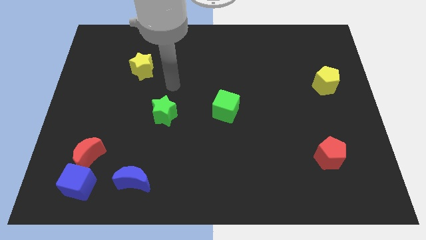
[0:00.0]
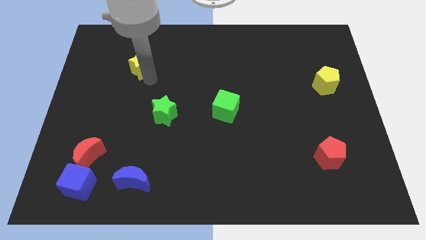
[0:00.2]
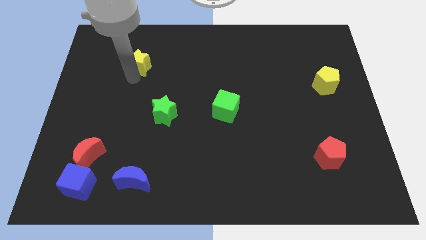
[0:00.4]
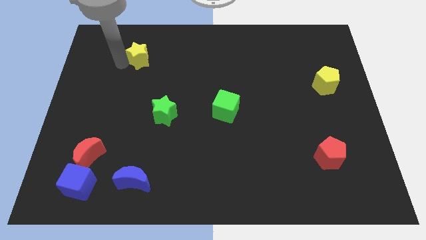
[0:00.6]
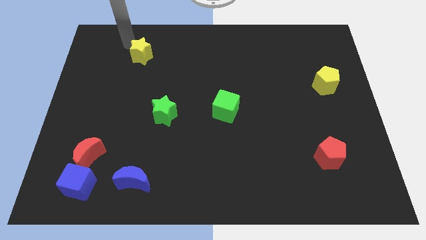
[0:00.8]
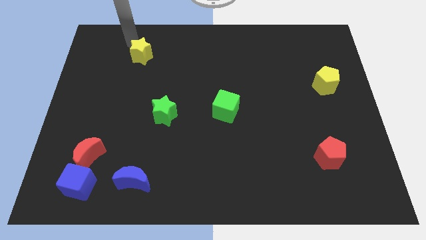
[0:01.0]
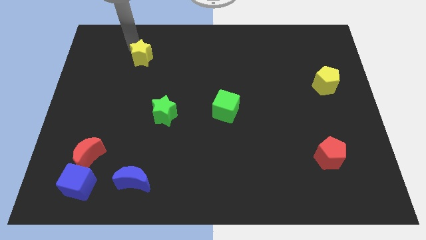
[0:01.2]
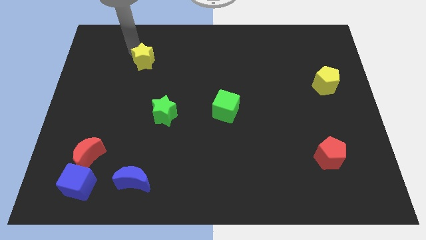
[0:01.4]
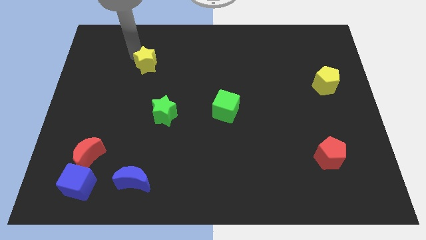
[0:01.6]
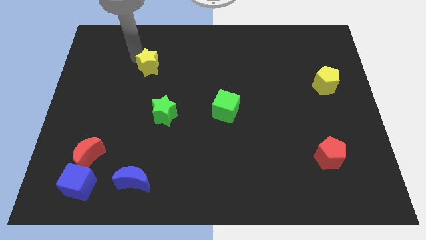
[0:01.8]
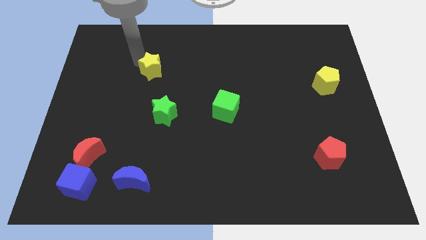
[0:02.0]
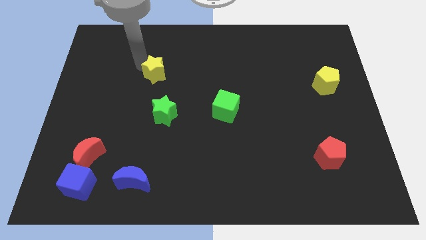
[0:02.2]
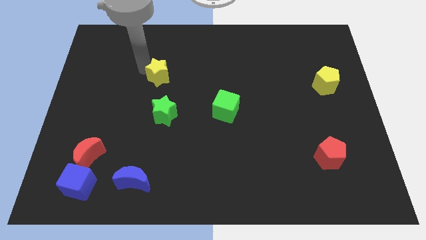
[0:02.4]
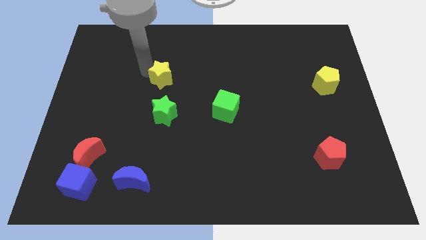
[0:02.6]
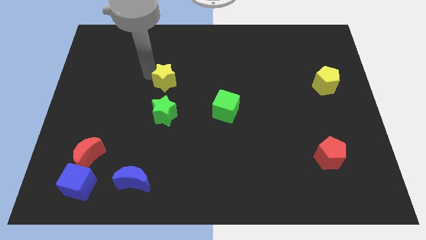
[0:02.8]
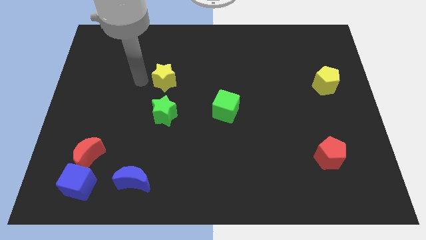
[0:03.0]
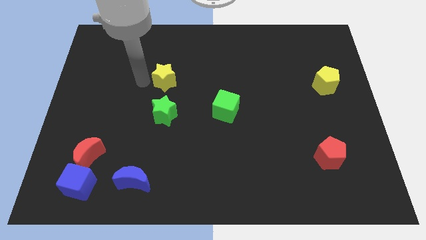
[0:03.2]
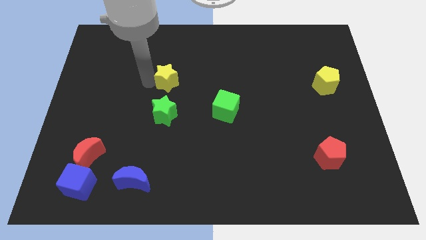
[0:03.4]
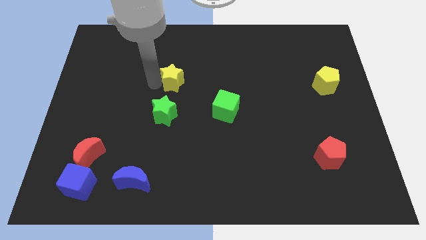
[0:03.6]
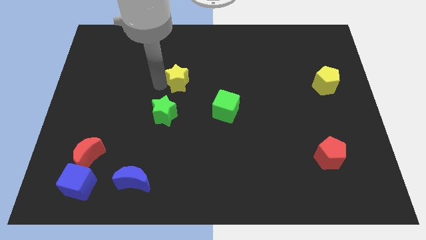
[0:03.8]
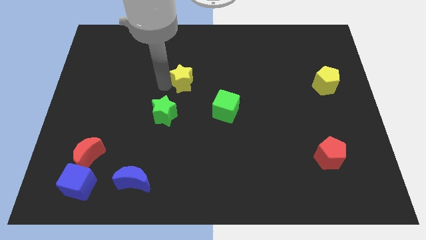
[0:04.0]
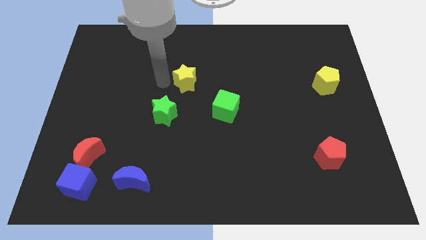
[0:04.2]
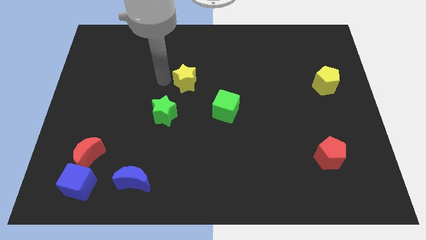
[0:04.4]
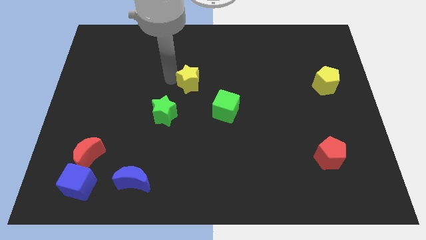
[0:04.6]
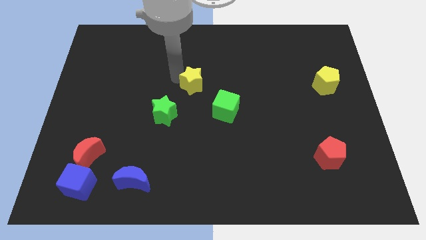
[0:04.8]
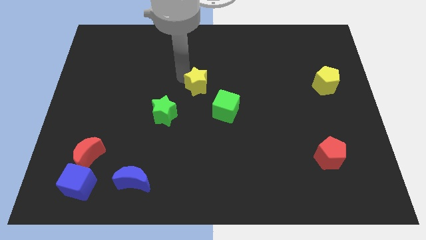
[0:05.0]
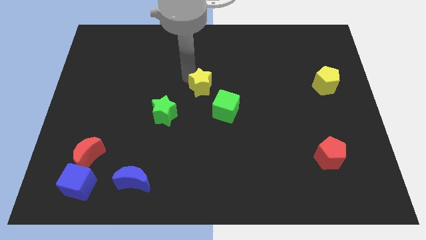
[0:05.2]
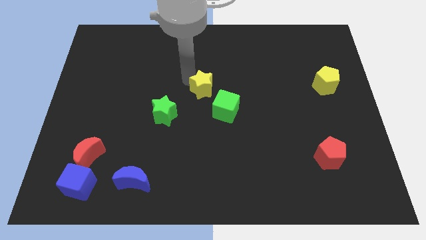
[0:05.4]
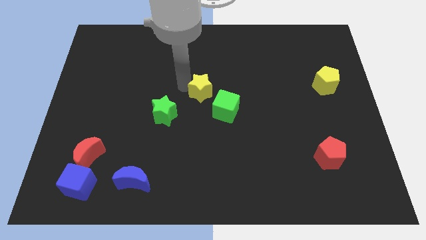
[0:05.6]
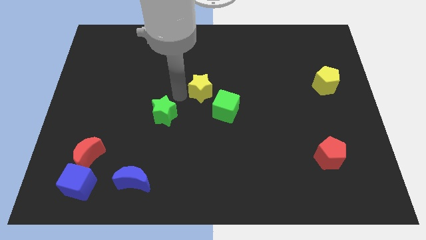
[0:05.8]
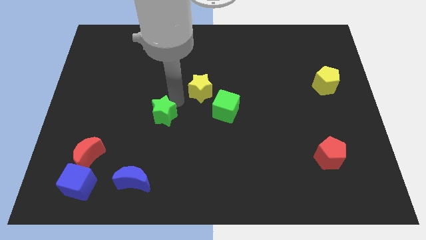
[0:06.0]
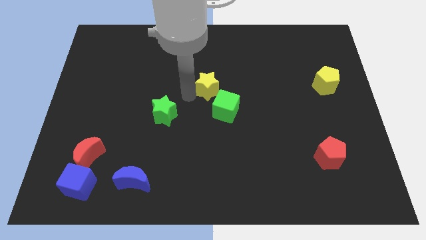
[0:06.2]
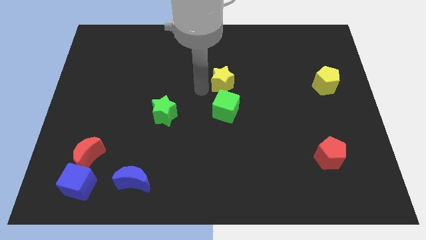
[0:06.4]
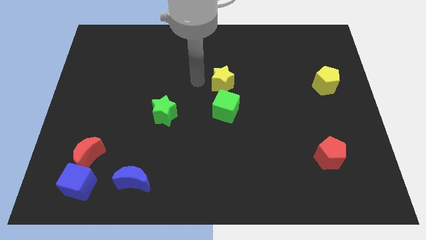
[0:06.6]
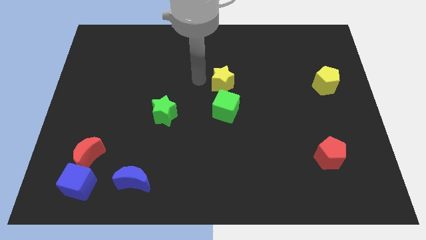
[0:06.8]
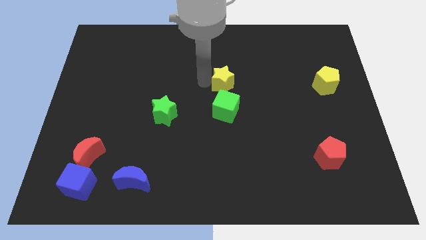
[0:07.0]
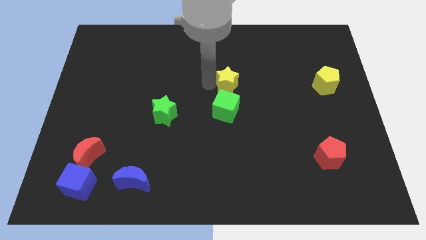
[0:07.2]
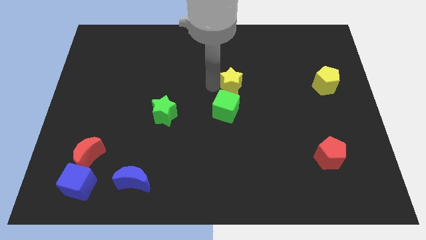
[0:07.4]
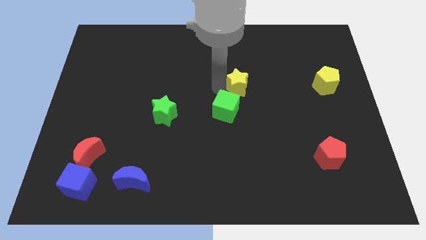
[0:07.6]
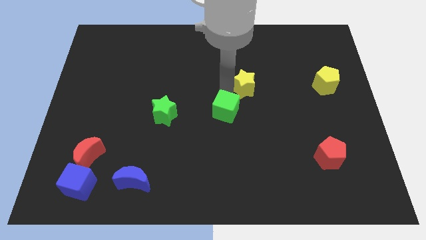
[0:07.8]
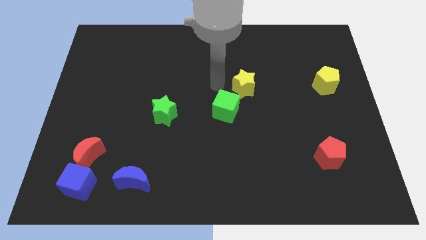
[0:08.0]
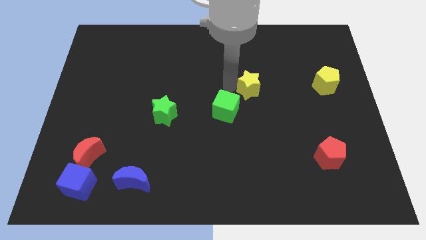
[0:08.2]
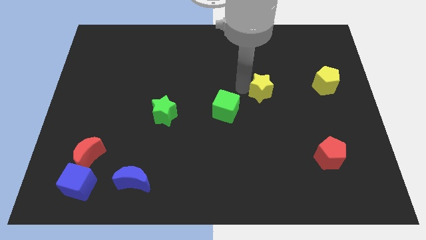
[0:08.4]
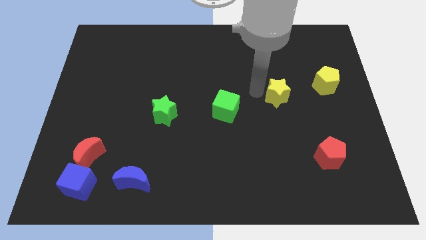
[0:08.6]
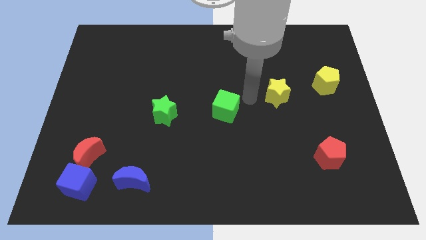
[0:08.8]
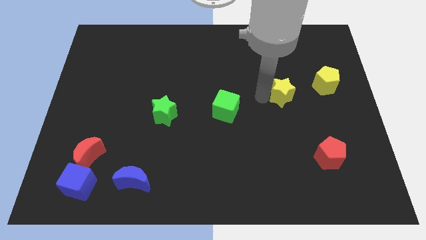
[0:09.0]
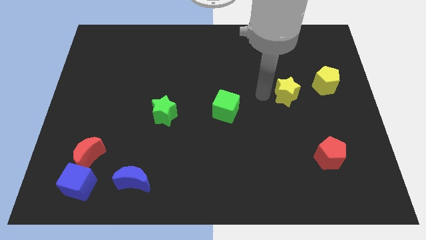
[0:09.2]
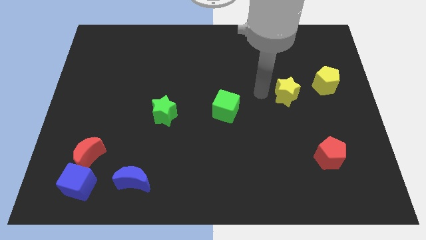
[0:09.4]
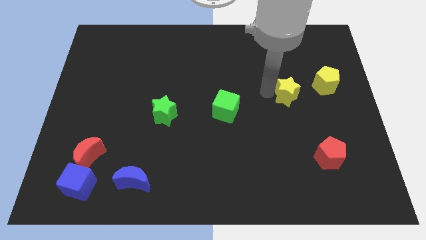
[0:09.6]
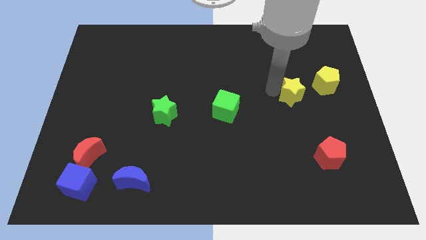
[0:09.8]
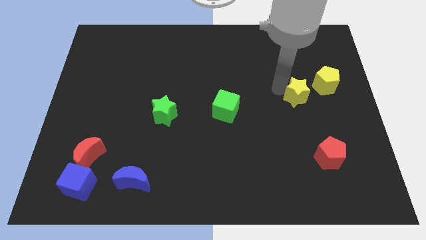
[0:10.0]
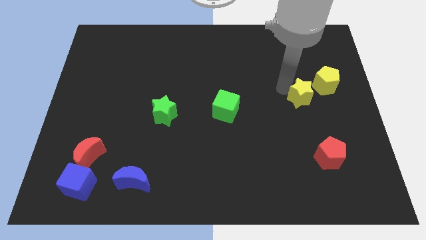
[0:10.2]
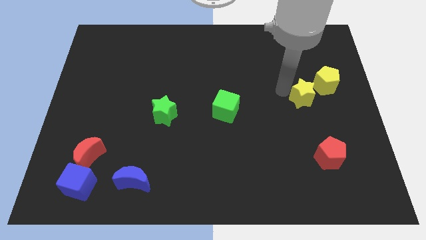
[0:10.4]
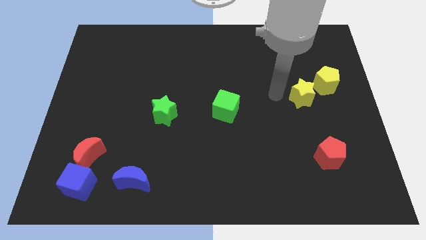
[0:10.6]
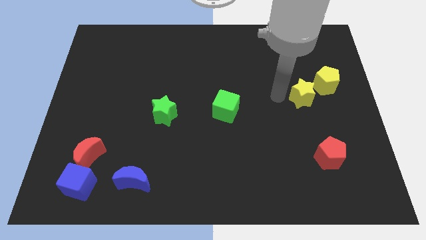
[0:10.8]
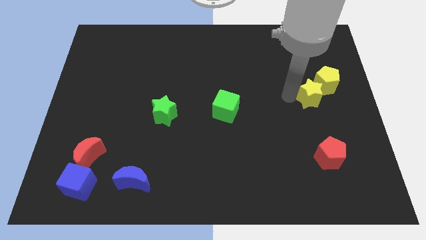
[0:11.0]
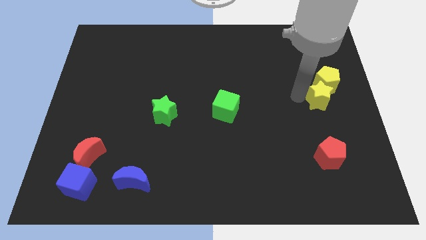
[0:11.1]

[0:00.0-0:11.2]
slide the yellow star to the right side

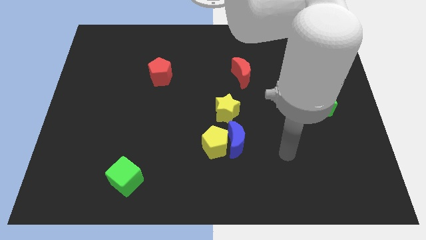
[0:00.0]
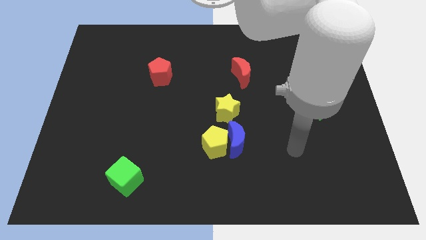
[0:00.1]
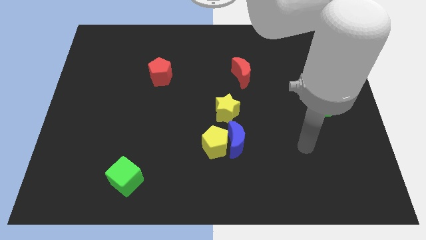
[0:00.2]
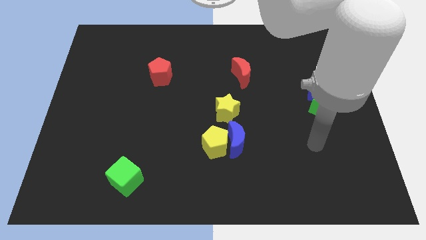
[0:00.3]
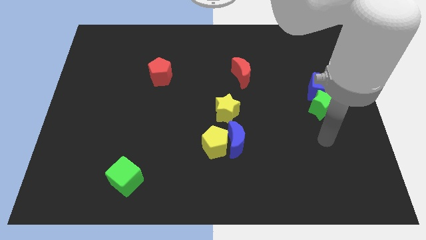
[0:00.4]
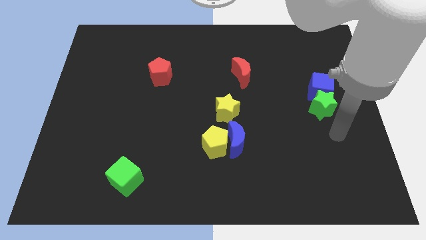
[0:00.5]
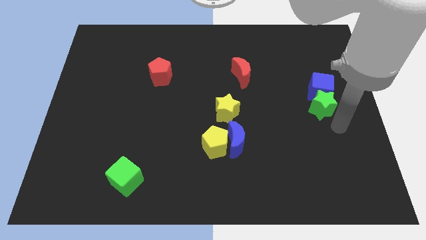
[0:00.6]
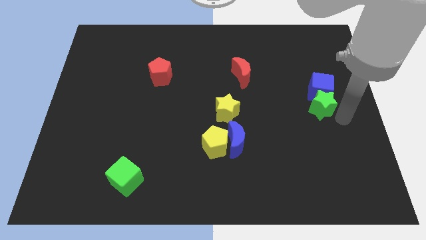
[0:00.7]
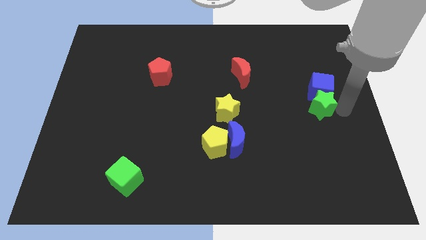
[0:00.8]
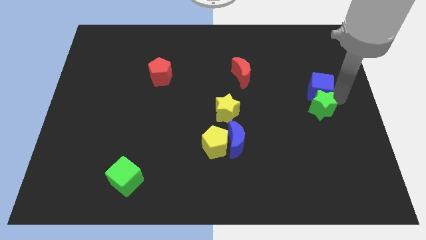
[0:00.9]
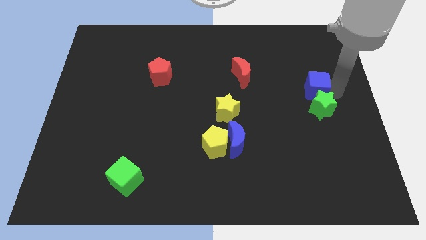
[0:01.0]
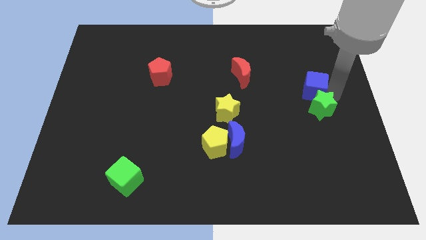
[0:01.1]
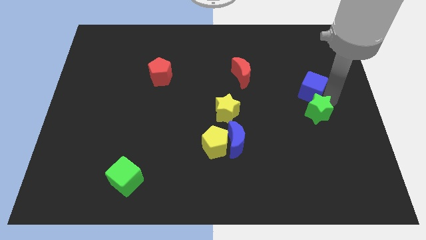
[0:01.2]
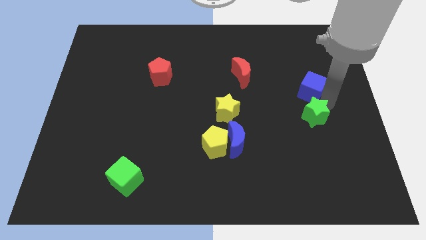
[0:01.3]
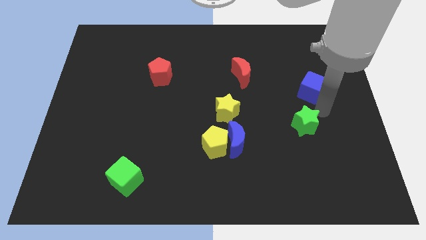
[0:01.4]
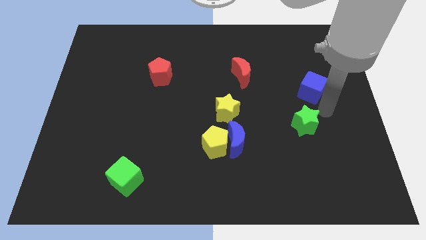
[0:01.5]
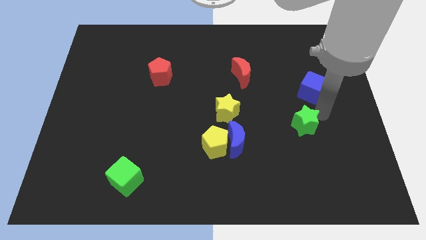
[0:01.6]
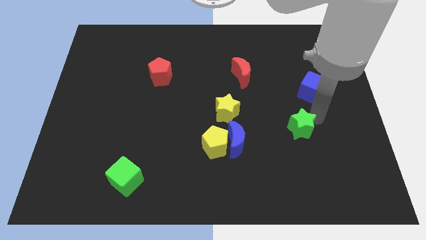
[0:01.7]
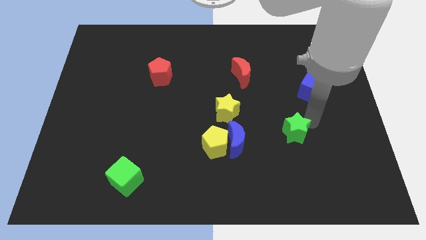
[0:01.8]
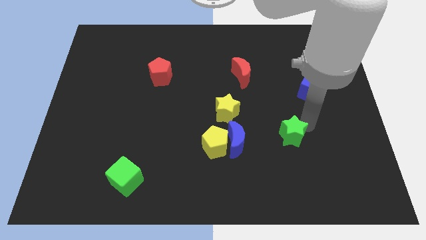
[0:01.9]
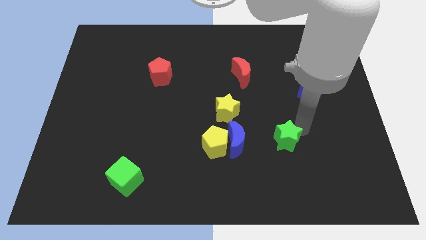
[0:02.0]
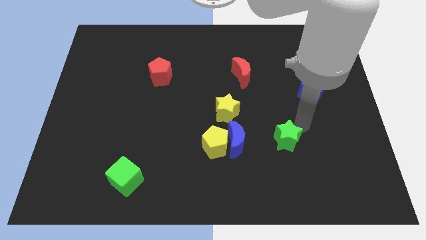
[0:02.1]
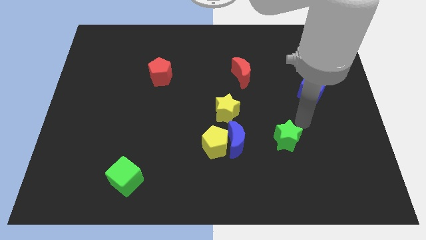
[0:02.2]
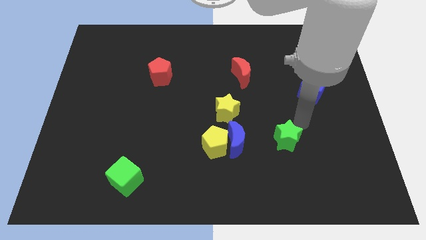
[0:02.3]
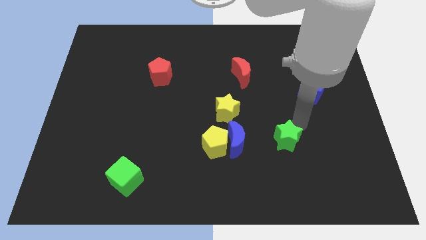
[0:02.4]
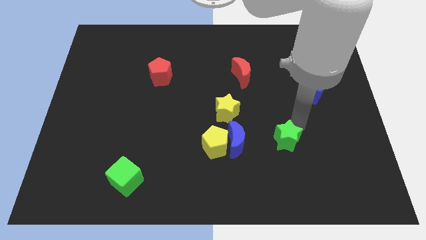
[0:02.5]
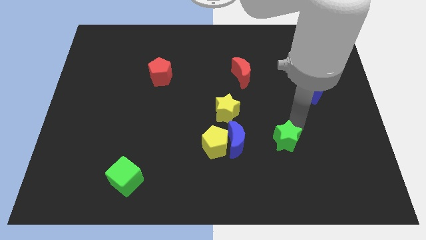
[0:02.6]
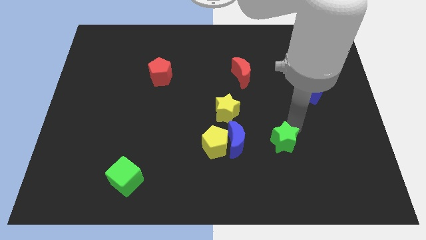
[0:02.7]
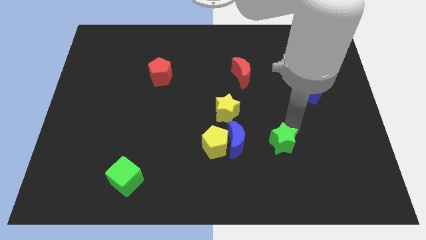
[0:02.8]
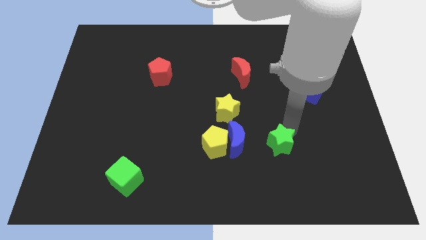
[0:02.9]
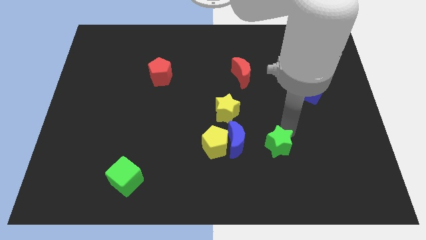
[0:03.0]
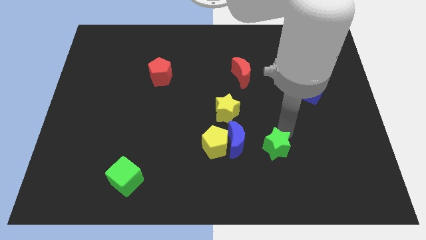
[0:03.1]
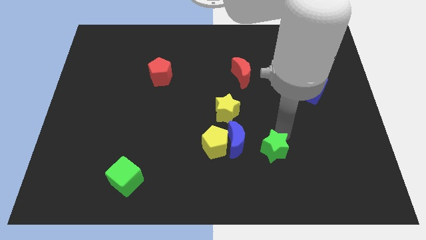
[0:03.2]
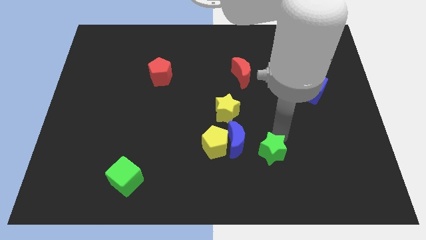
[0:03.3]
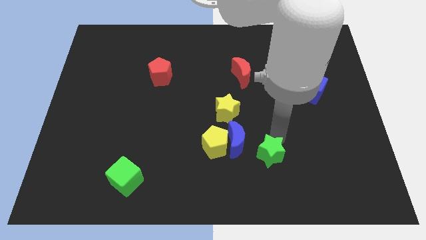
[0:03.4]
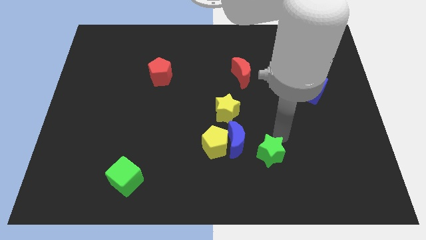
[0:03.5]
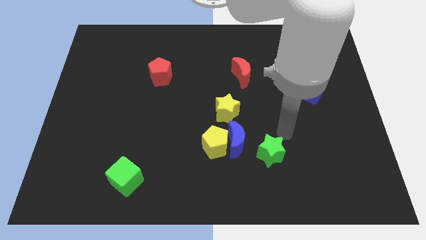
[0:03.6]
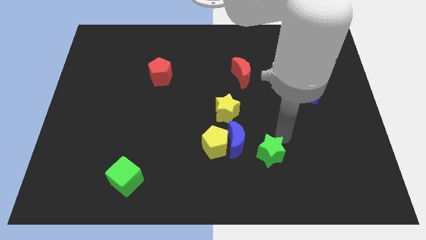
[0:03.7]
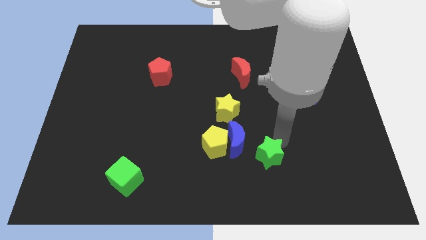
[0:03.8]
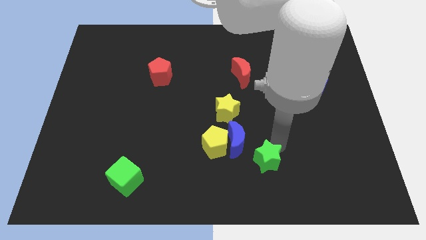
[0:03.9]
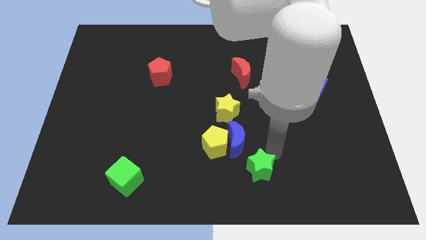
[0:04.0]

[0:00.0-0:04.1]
slide the green star to the bottom side
